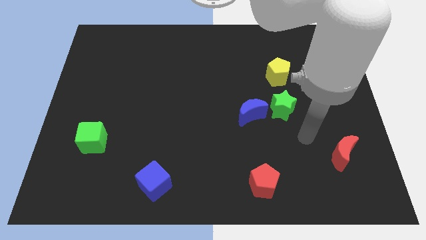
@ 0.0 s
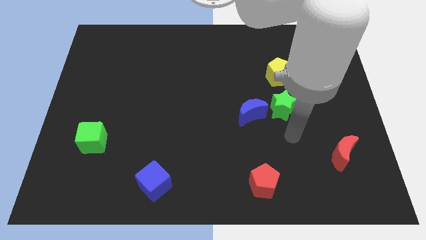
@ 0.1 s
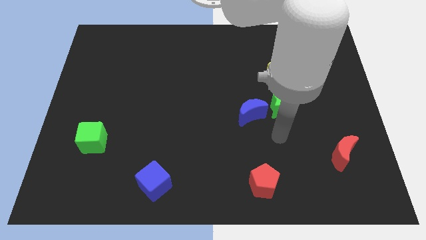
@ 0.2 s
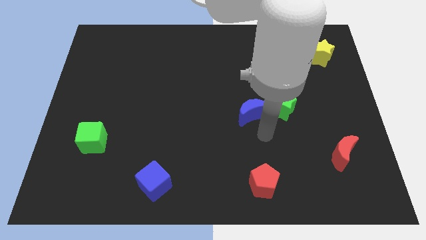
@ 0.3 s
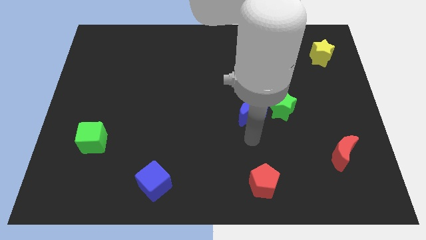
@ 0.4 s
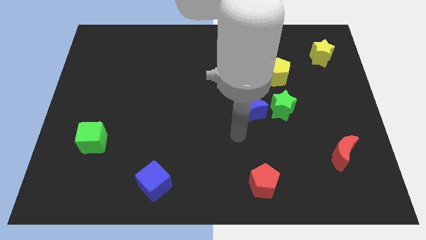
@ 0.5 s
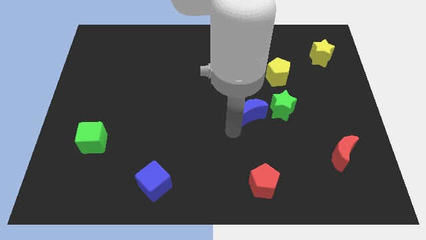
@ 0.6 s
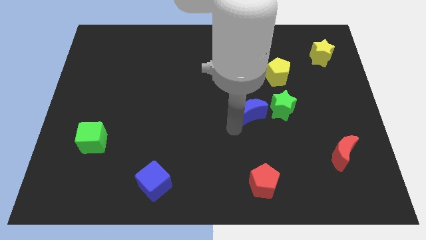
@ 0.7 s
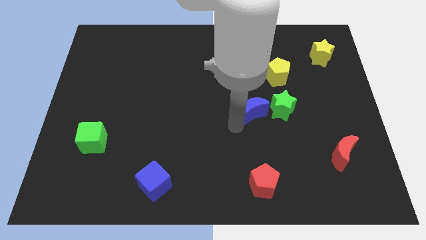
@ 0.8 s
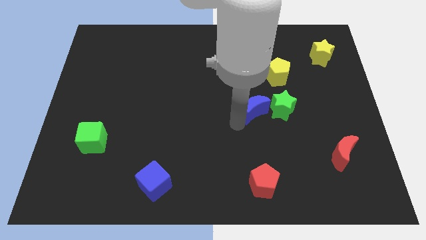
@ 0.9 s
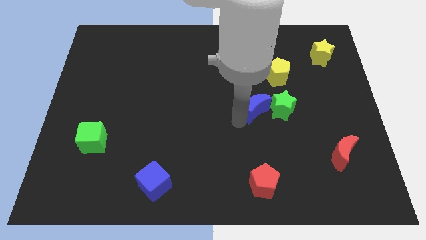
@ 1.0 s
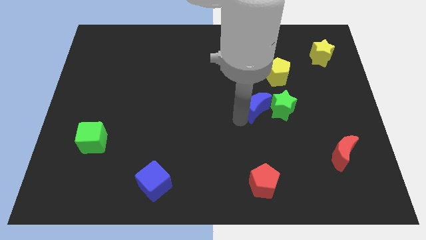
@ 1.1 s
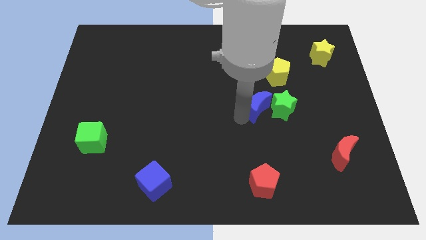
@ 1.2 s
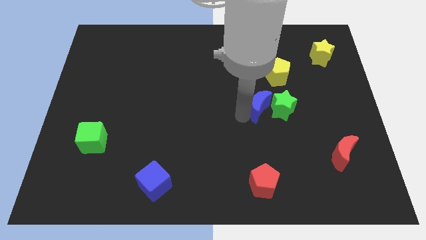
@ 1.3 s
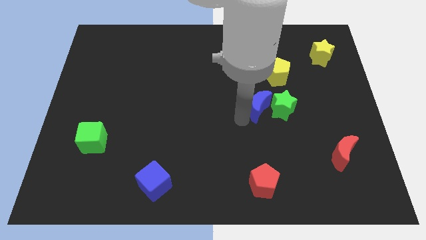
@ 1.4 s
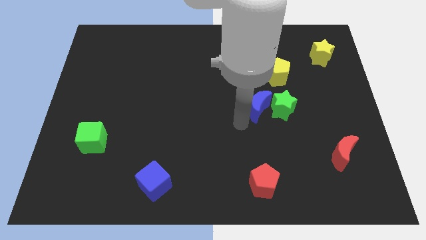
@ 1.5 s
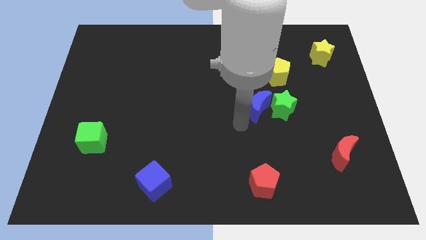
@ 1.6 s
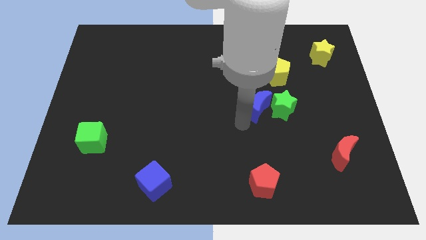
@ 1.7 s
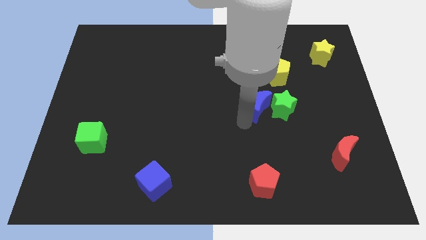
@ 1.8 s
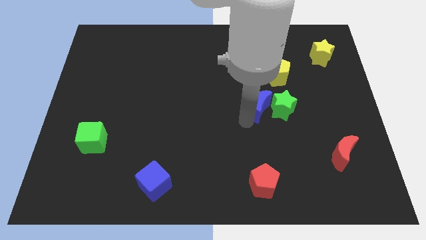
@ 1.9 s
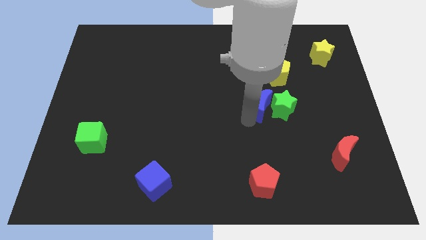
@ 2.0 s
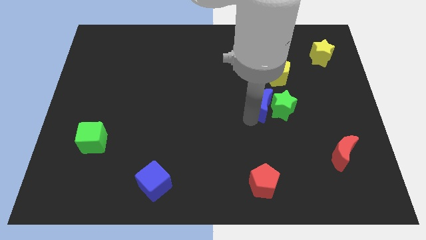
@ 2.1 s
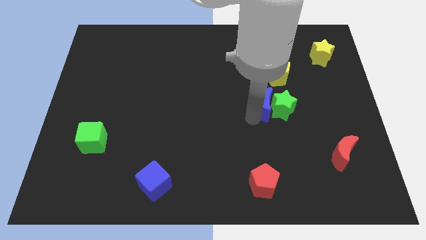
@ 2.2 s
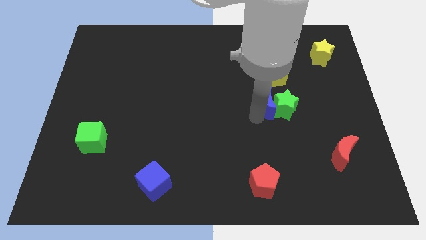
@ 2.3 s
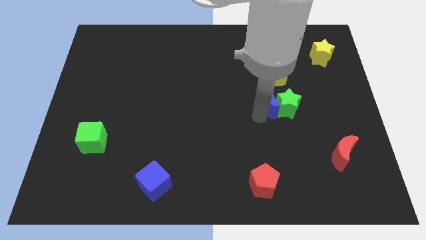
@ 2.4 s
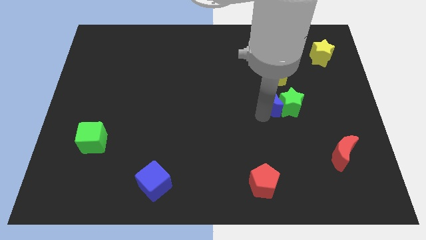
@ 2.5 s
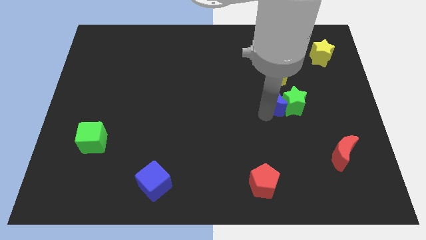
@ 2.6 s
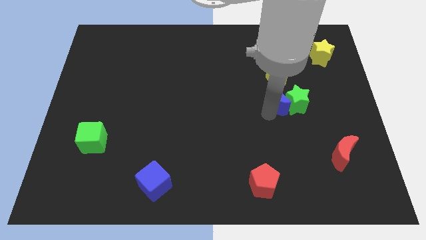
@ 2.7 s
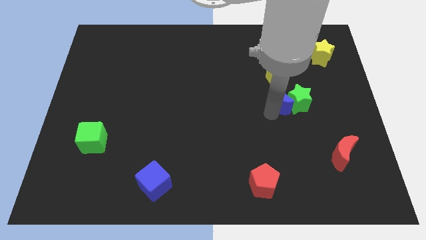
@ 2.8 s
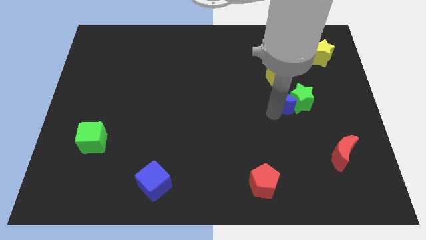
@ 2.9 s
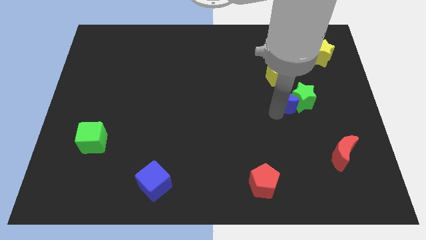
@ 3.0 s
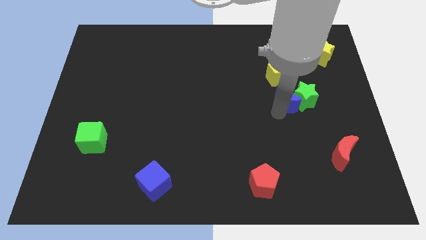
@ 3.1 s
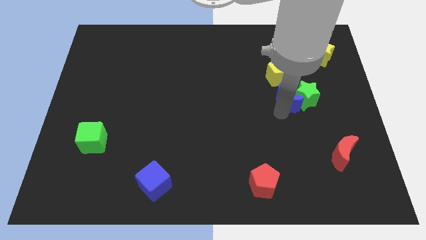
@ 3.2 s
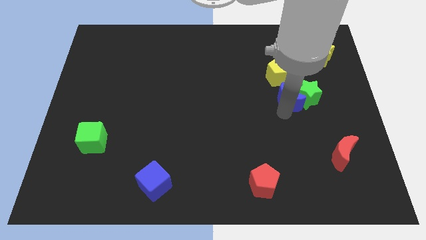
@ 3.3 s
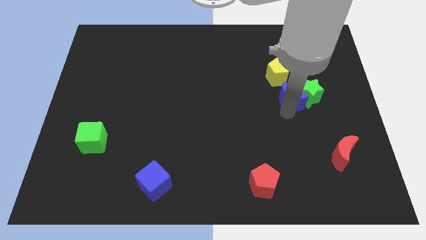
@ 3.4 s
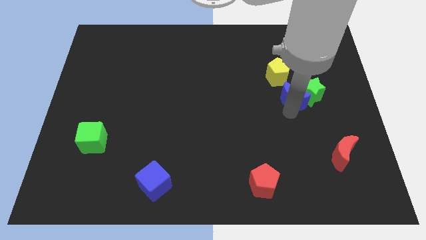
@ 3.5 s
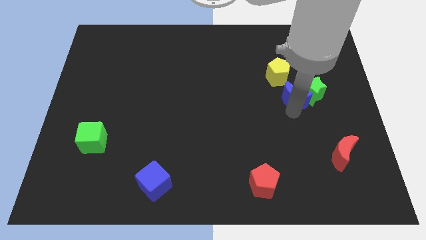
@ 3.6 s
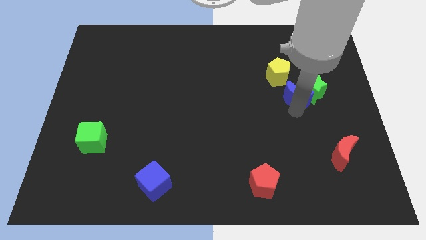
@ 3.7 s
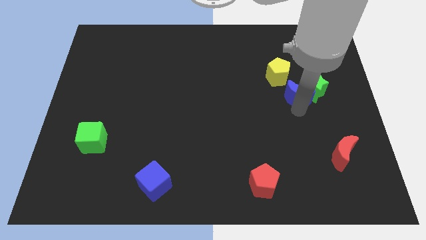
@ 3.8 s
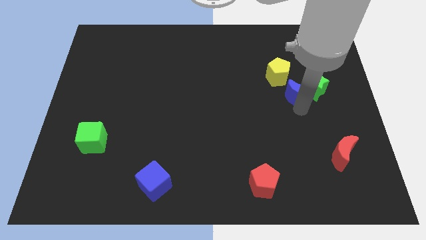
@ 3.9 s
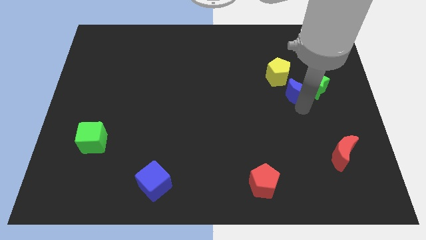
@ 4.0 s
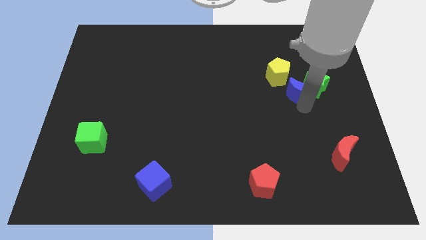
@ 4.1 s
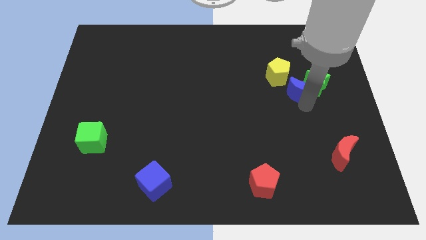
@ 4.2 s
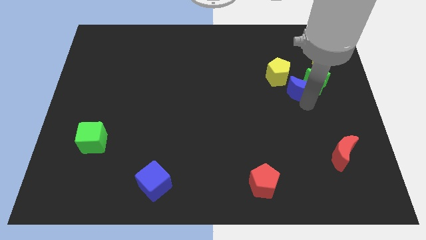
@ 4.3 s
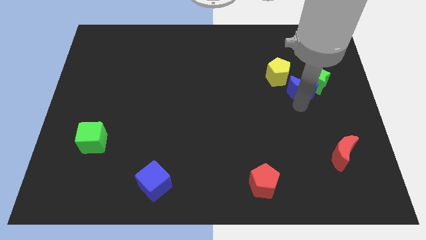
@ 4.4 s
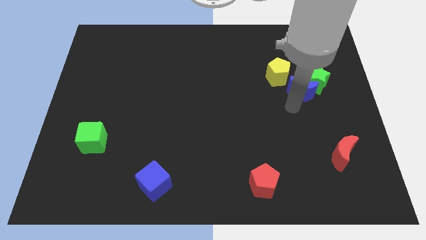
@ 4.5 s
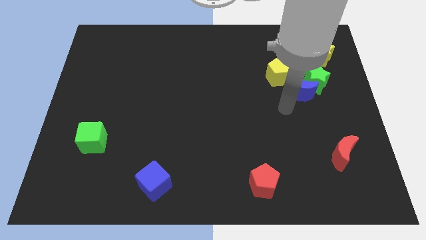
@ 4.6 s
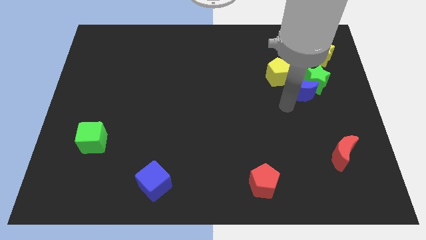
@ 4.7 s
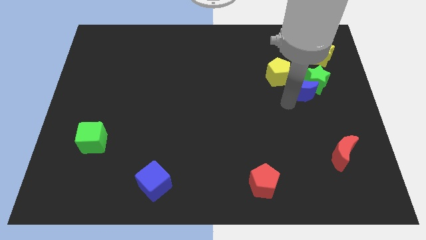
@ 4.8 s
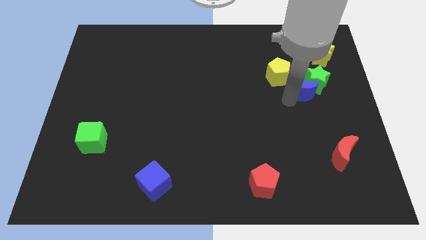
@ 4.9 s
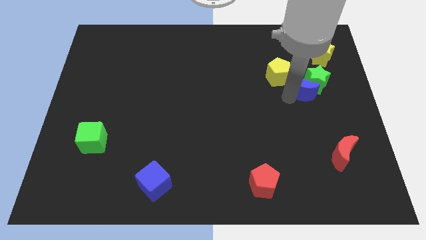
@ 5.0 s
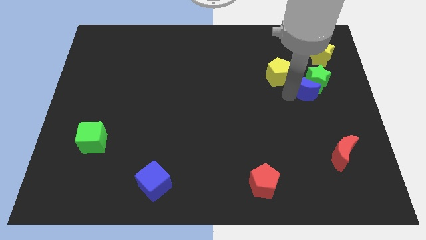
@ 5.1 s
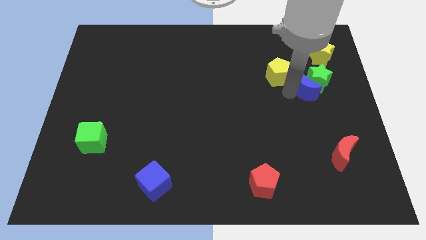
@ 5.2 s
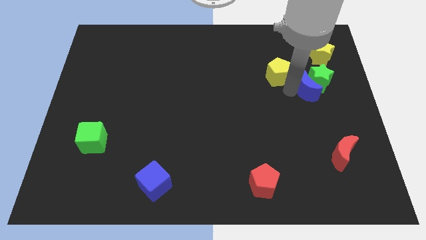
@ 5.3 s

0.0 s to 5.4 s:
slide the blue moon to the right side of the yellow pentagon

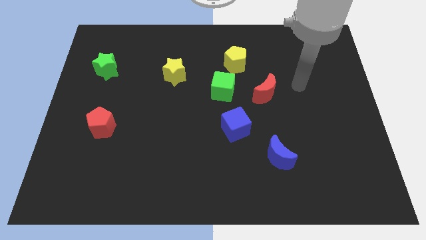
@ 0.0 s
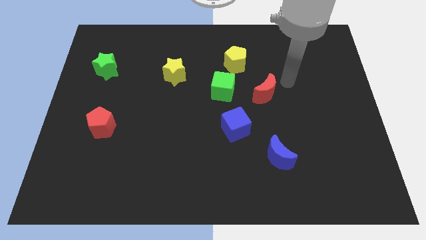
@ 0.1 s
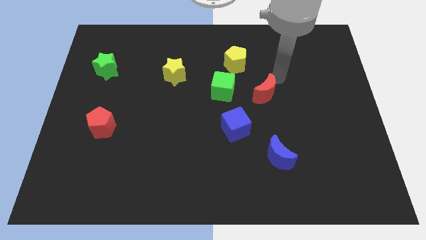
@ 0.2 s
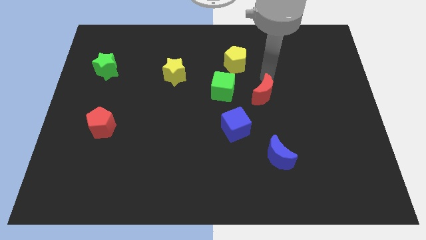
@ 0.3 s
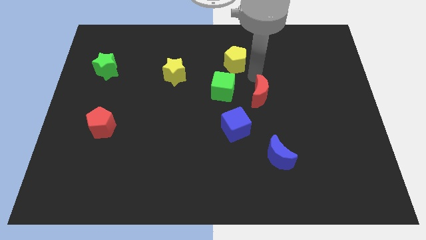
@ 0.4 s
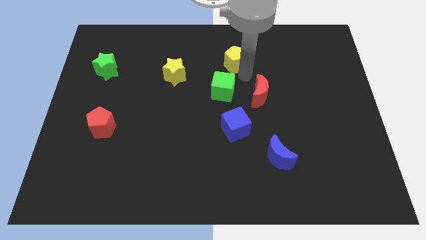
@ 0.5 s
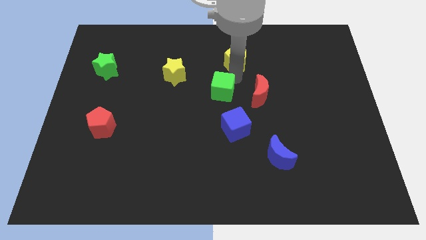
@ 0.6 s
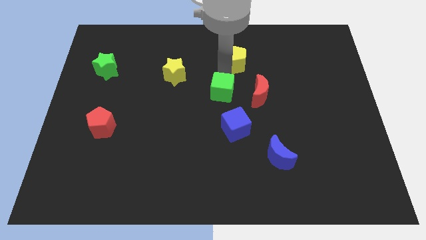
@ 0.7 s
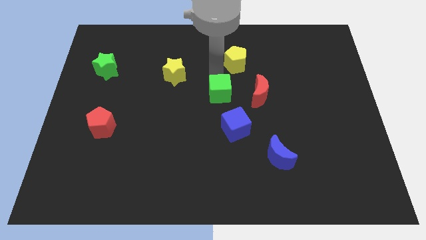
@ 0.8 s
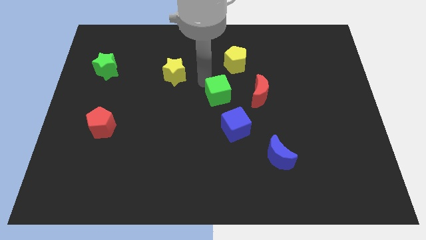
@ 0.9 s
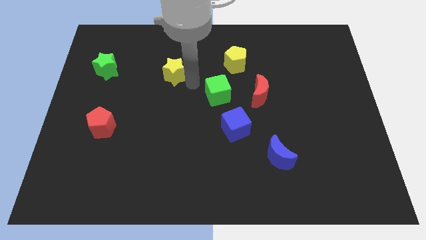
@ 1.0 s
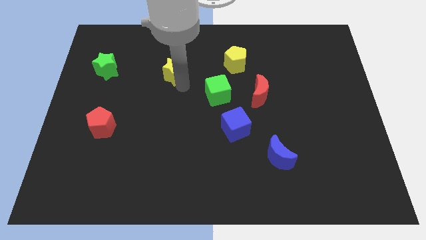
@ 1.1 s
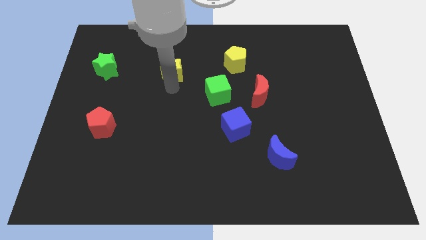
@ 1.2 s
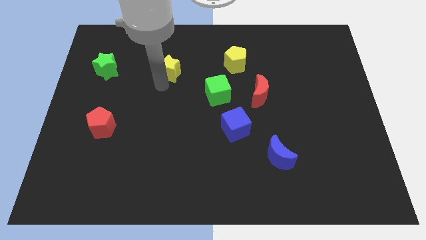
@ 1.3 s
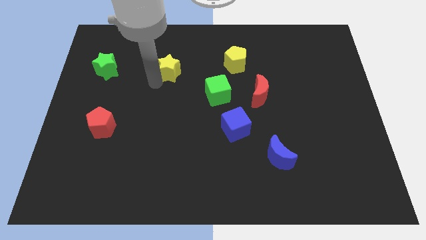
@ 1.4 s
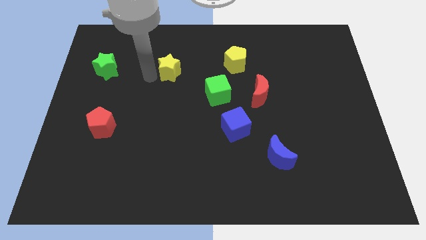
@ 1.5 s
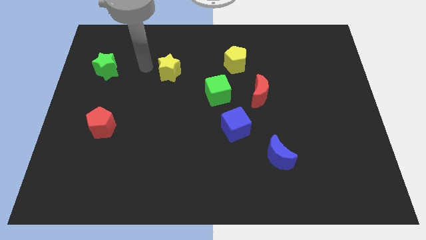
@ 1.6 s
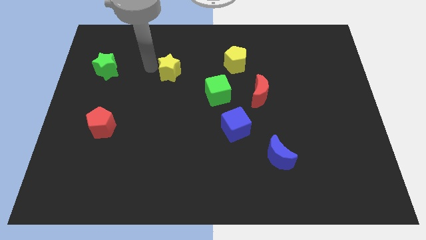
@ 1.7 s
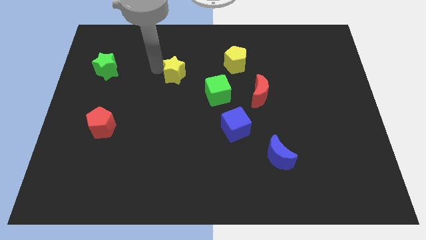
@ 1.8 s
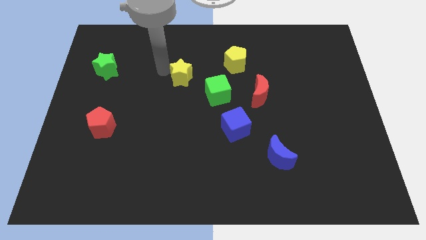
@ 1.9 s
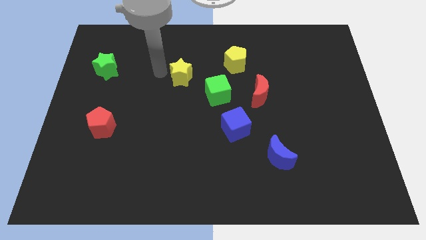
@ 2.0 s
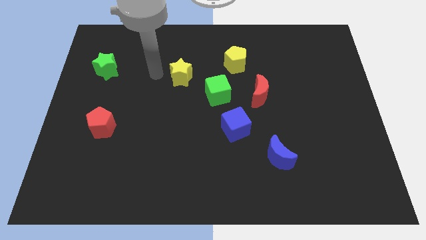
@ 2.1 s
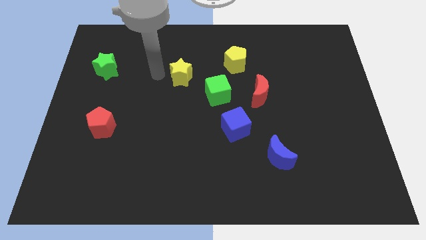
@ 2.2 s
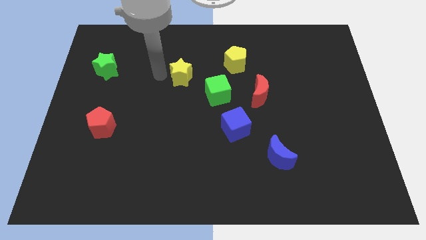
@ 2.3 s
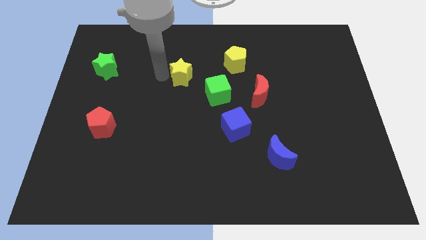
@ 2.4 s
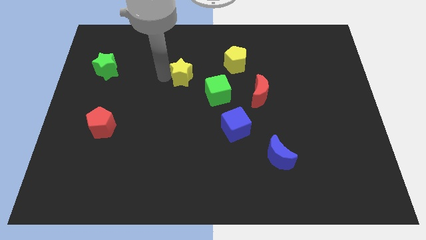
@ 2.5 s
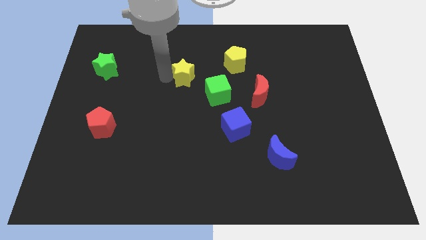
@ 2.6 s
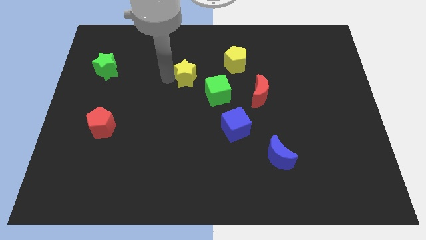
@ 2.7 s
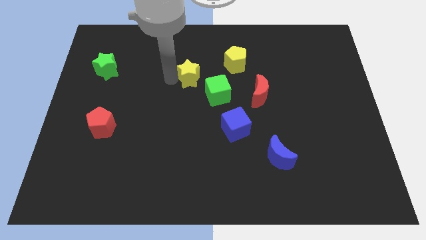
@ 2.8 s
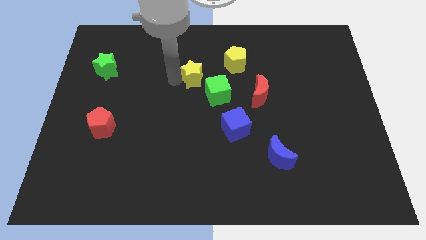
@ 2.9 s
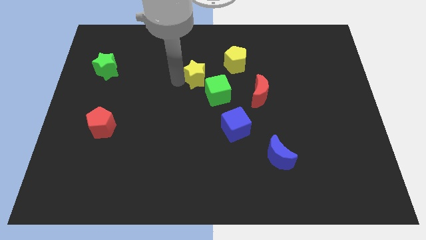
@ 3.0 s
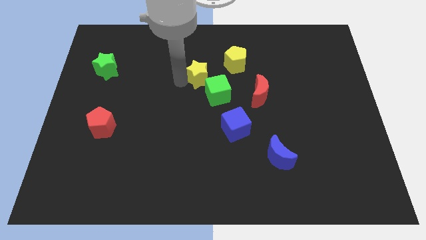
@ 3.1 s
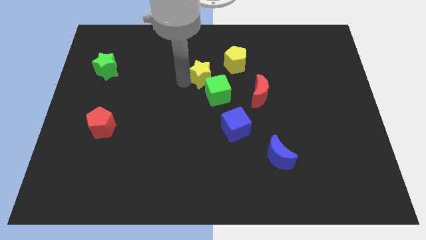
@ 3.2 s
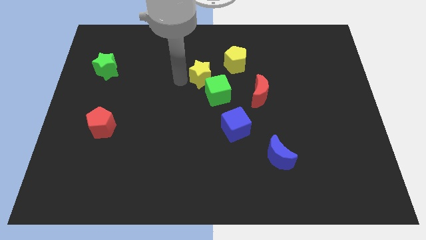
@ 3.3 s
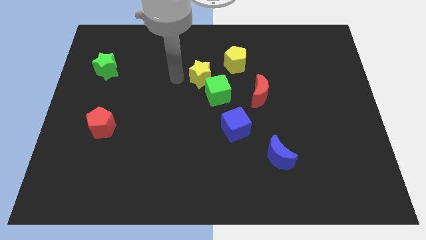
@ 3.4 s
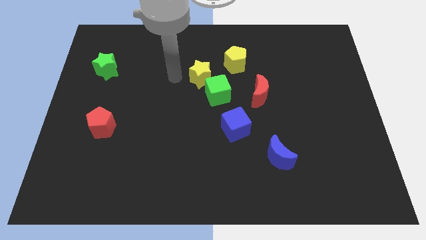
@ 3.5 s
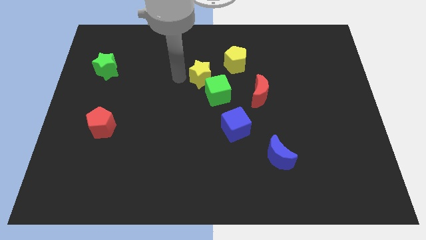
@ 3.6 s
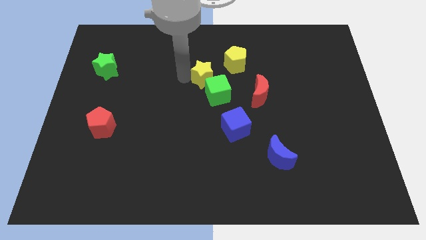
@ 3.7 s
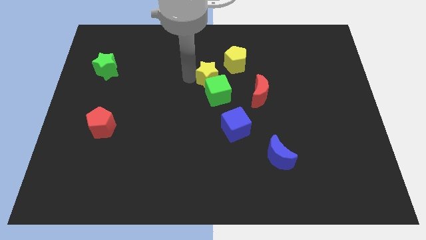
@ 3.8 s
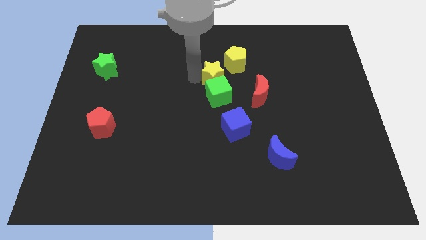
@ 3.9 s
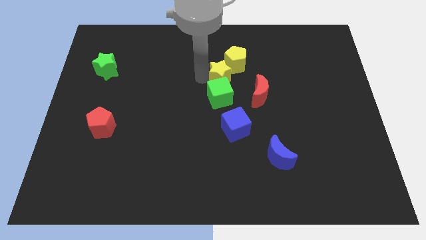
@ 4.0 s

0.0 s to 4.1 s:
move the yellow star to the top left side of the red moon
